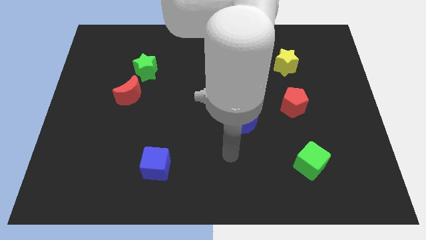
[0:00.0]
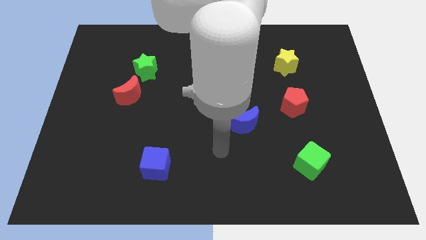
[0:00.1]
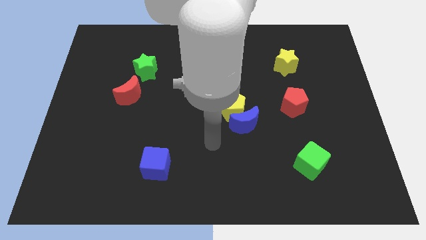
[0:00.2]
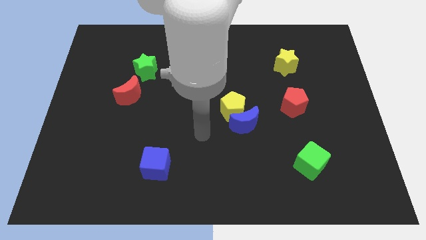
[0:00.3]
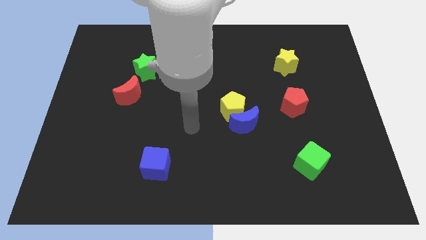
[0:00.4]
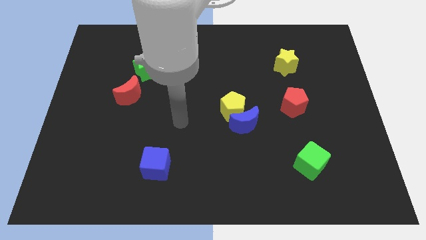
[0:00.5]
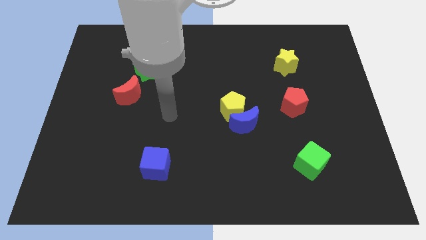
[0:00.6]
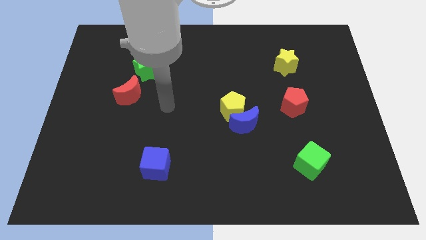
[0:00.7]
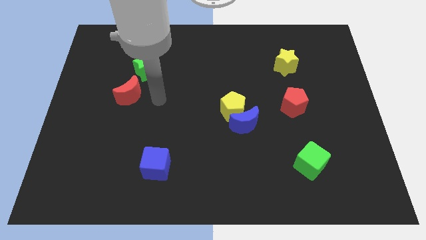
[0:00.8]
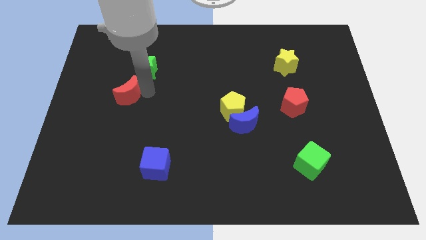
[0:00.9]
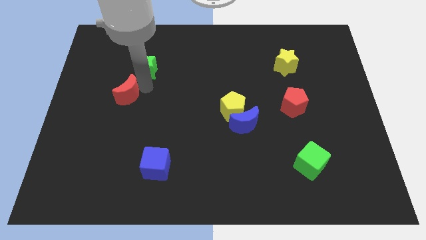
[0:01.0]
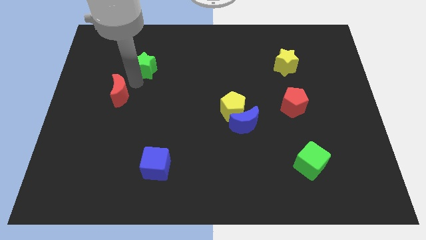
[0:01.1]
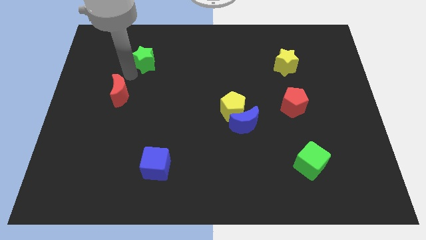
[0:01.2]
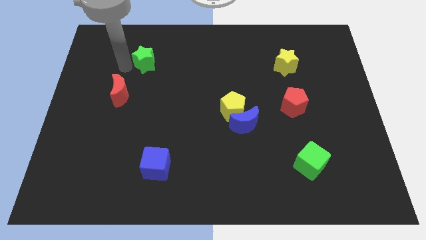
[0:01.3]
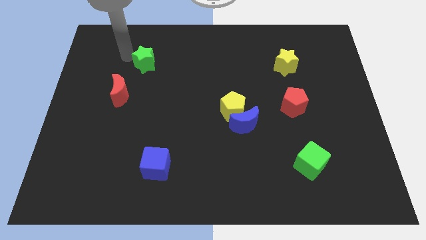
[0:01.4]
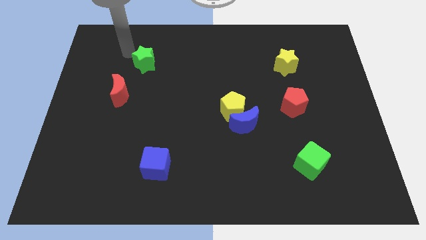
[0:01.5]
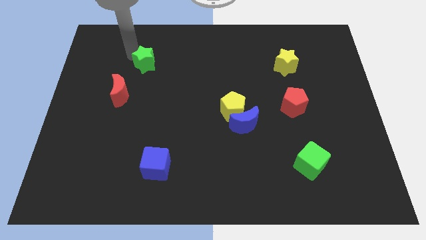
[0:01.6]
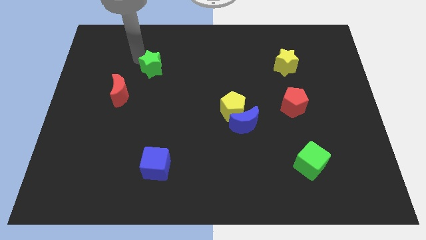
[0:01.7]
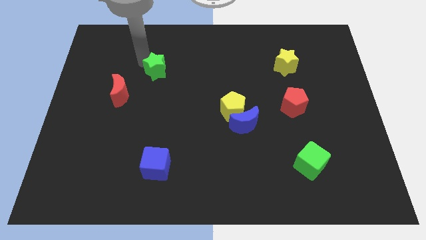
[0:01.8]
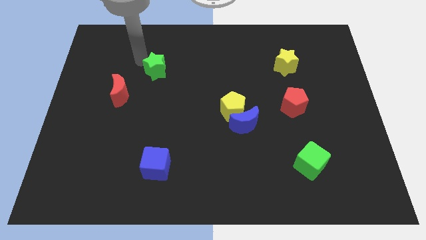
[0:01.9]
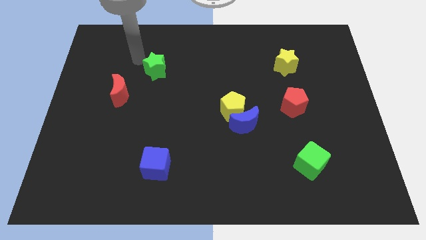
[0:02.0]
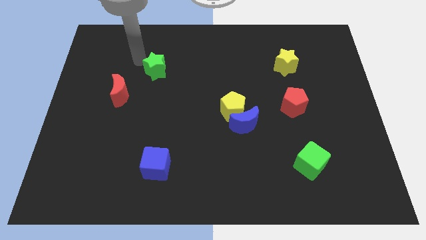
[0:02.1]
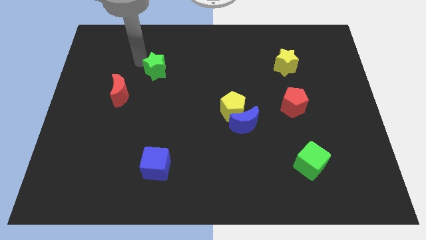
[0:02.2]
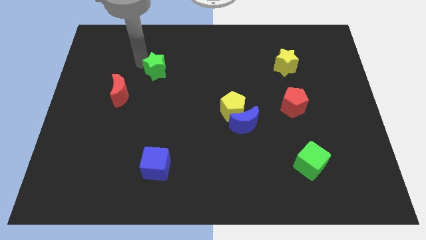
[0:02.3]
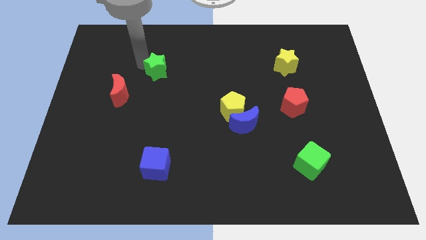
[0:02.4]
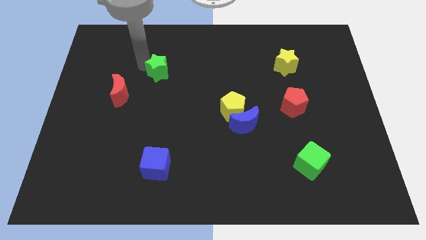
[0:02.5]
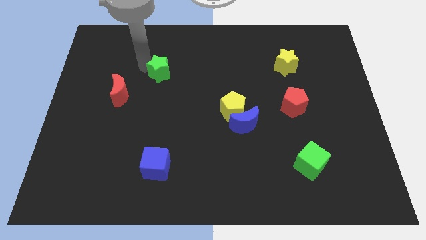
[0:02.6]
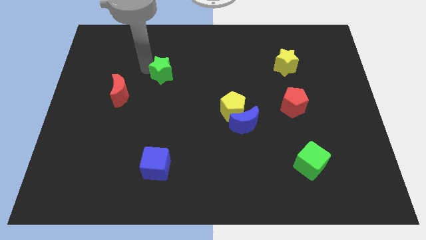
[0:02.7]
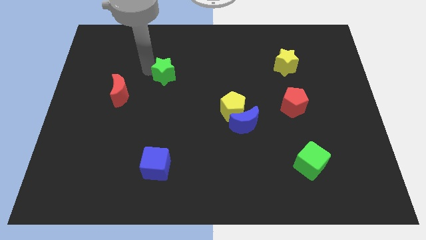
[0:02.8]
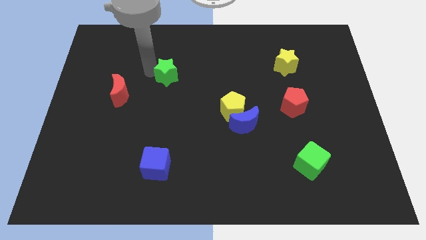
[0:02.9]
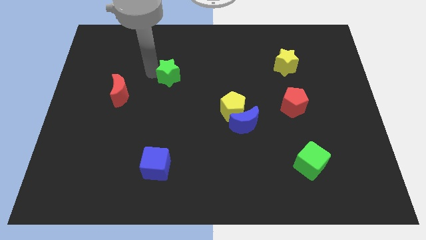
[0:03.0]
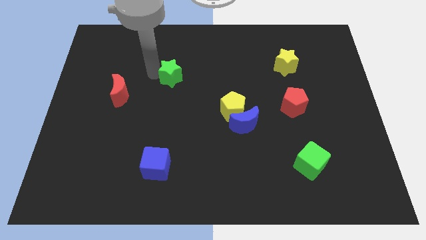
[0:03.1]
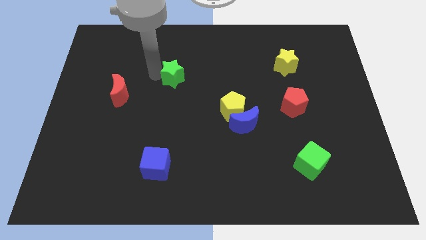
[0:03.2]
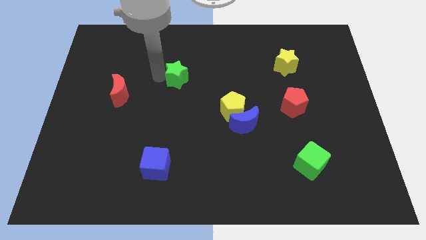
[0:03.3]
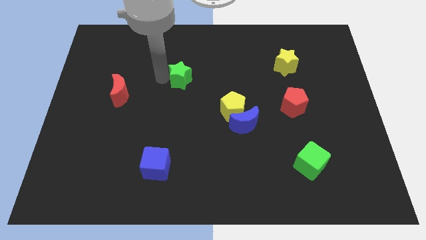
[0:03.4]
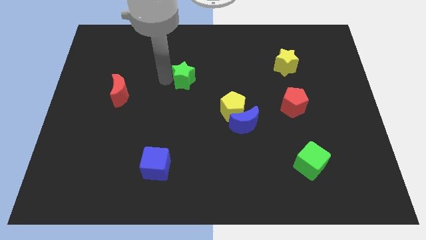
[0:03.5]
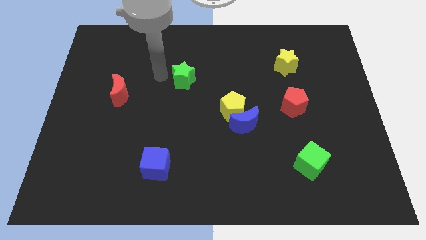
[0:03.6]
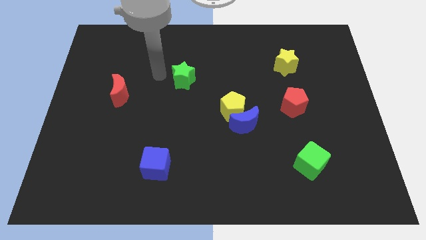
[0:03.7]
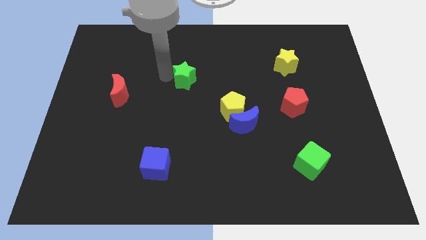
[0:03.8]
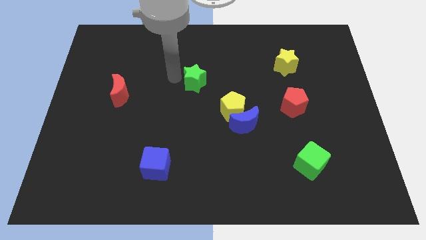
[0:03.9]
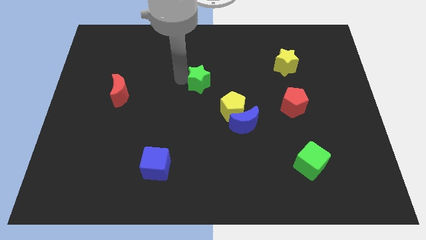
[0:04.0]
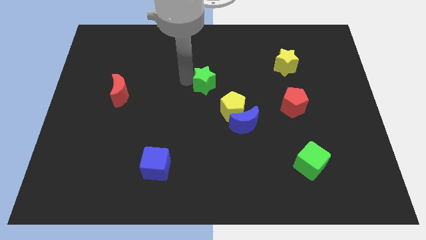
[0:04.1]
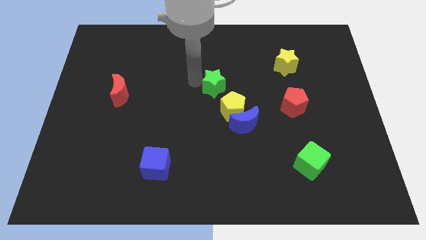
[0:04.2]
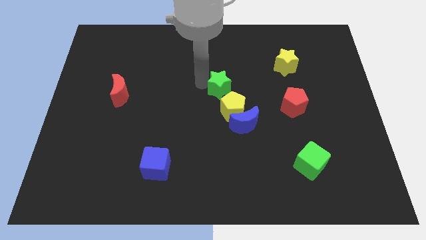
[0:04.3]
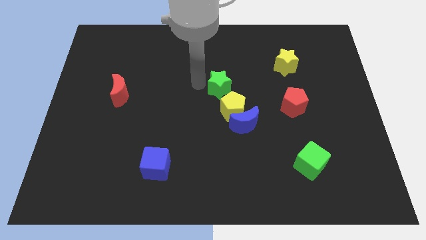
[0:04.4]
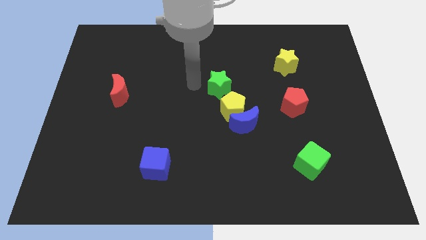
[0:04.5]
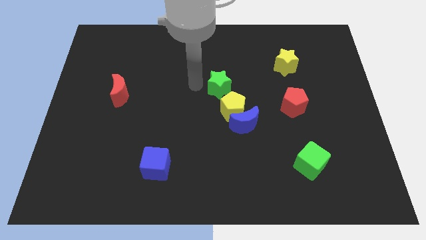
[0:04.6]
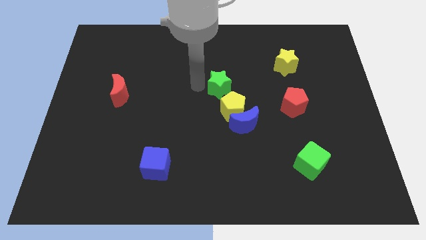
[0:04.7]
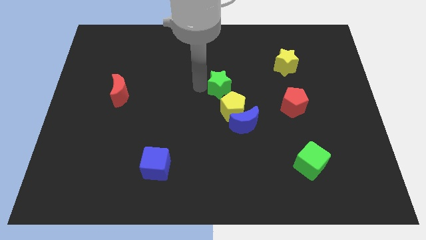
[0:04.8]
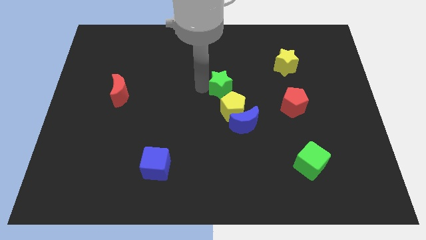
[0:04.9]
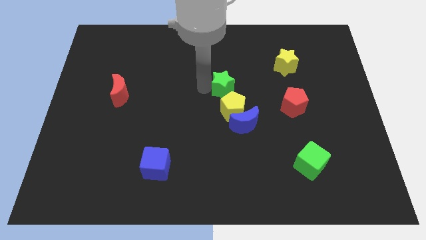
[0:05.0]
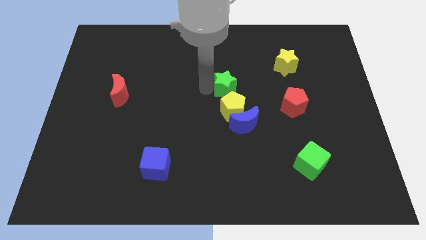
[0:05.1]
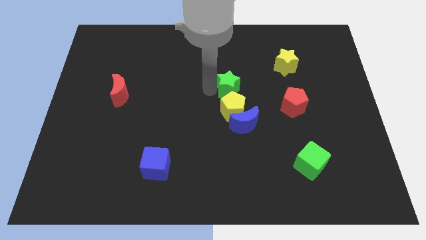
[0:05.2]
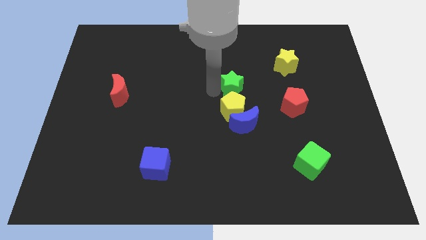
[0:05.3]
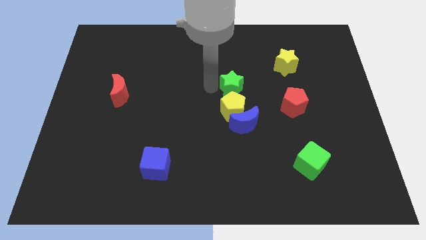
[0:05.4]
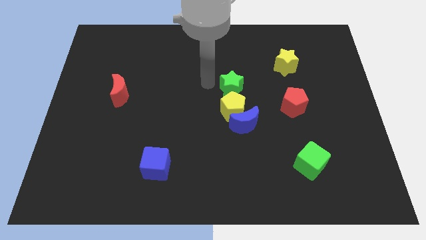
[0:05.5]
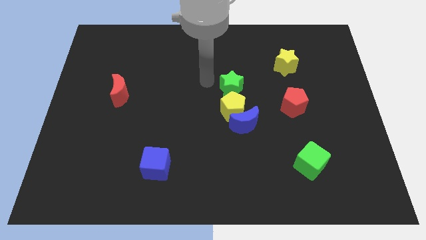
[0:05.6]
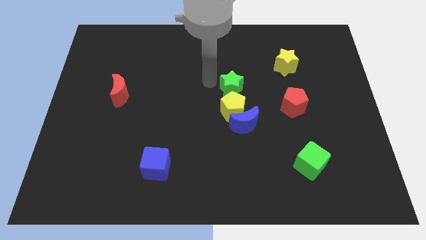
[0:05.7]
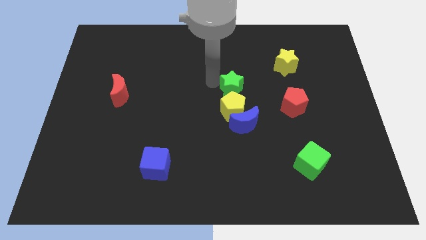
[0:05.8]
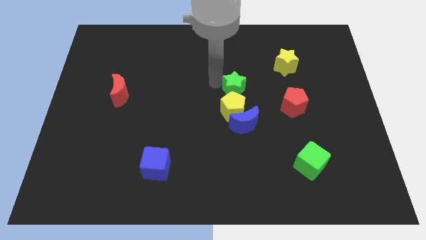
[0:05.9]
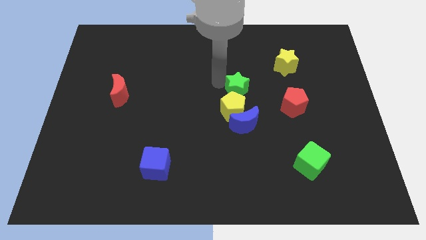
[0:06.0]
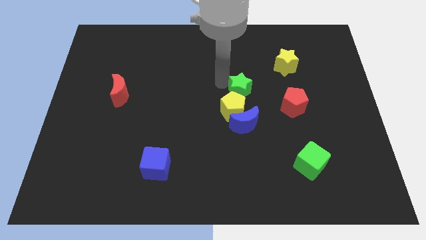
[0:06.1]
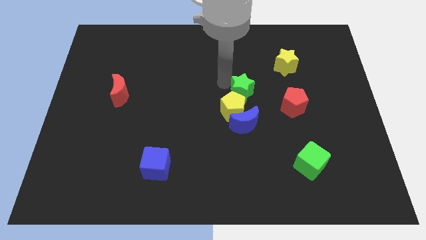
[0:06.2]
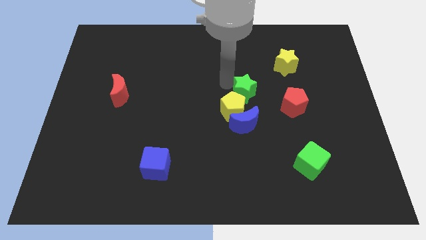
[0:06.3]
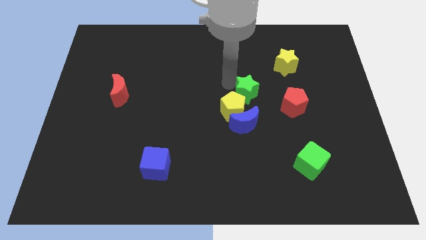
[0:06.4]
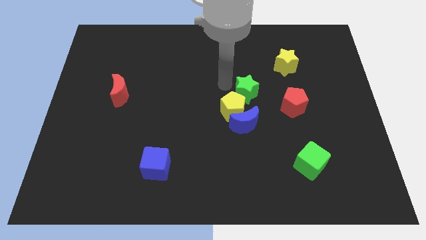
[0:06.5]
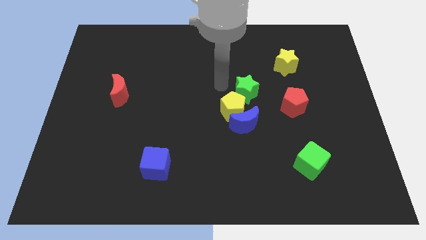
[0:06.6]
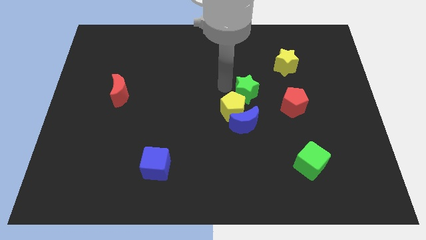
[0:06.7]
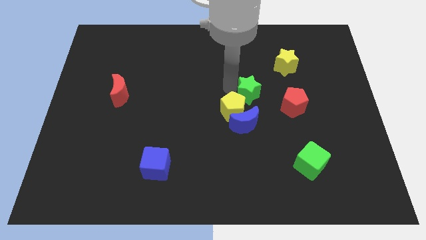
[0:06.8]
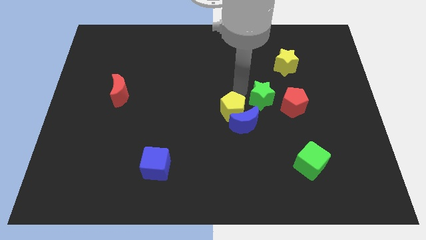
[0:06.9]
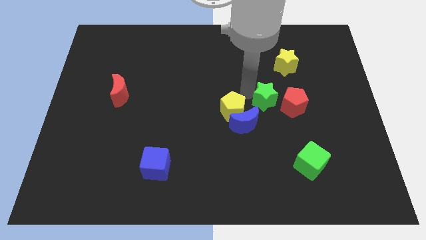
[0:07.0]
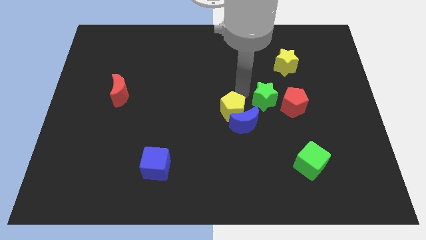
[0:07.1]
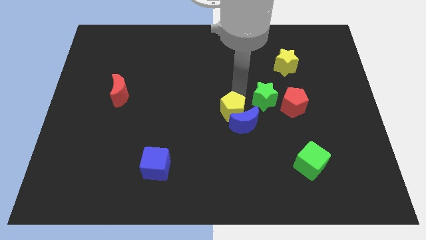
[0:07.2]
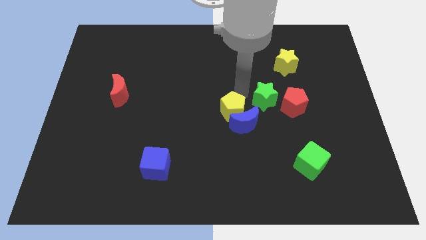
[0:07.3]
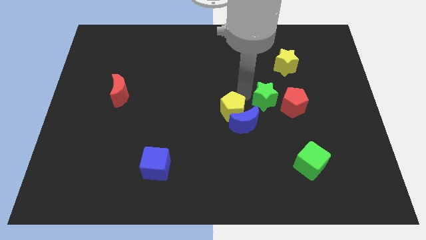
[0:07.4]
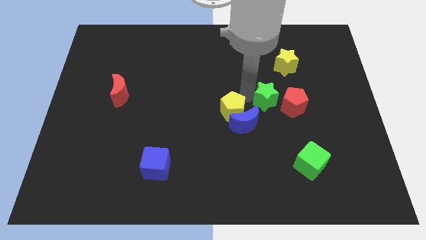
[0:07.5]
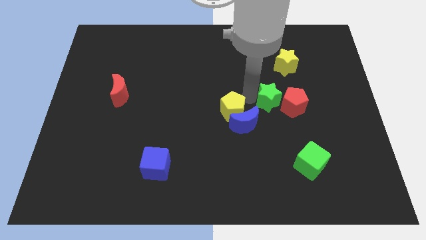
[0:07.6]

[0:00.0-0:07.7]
put the green star to the red pentagon
